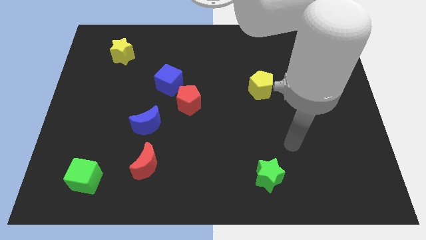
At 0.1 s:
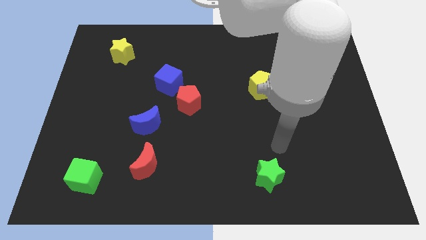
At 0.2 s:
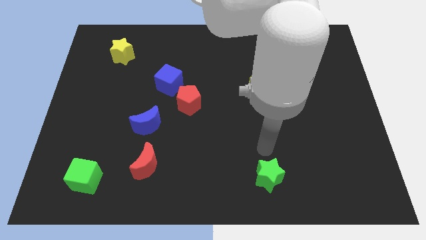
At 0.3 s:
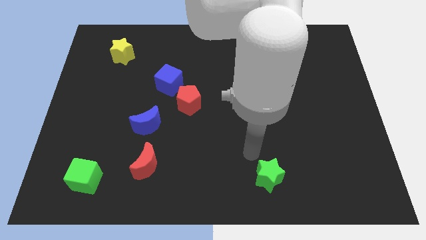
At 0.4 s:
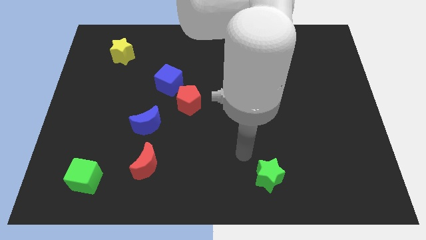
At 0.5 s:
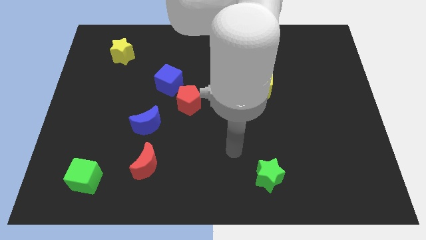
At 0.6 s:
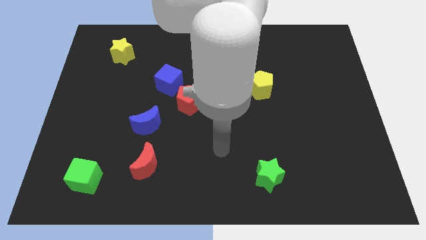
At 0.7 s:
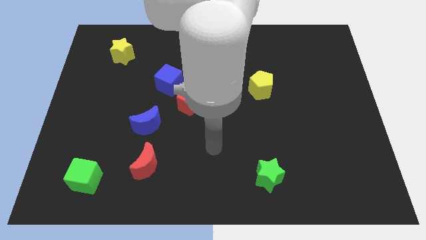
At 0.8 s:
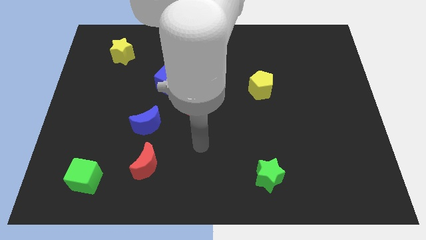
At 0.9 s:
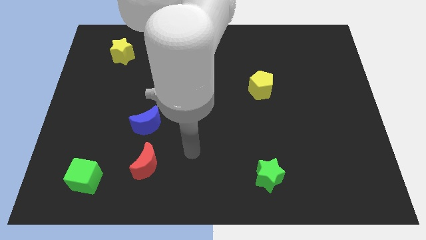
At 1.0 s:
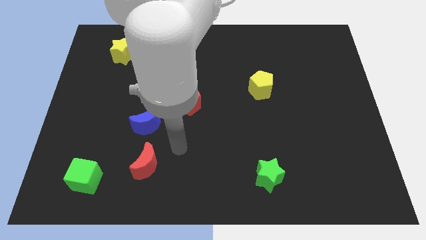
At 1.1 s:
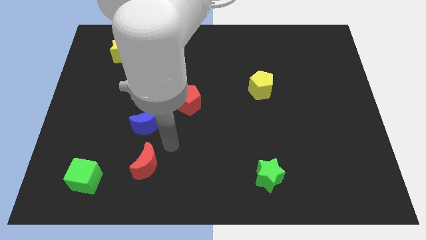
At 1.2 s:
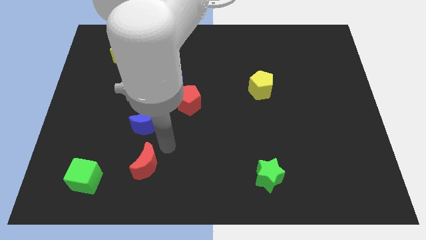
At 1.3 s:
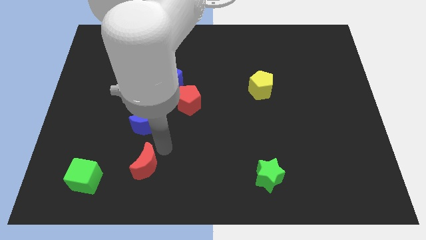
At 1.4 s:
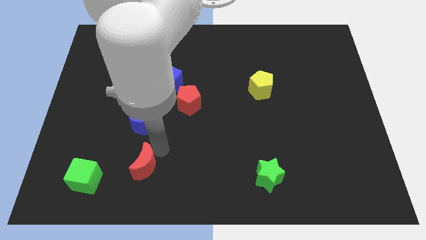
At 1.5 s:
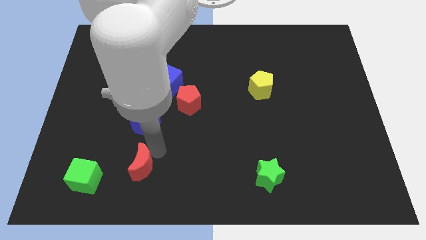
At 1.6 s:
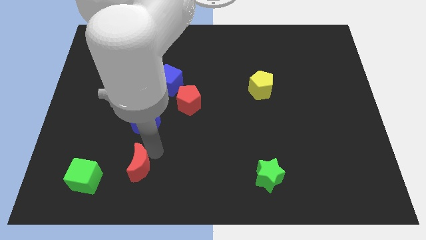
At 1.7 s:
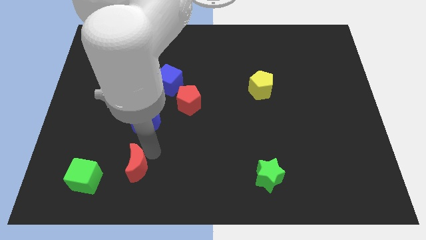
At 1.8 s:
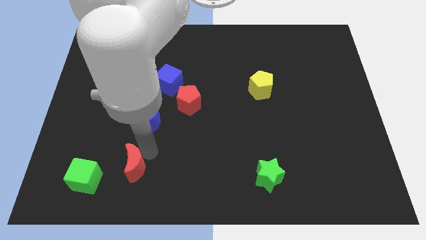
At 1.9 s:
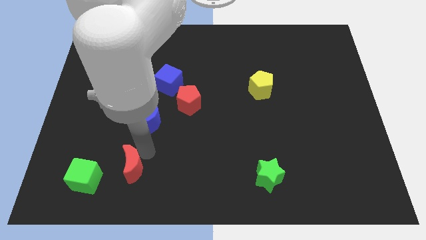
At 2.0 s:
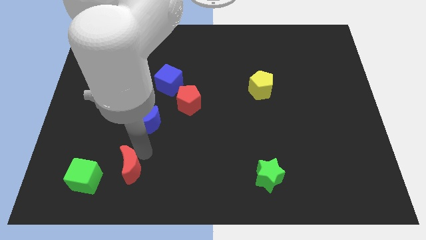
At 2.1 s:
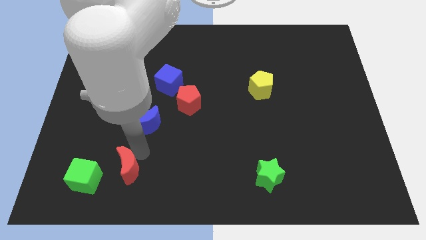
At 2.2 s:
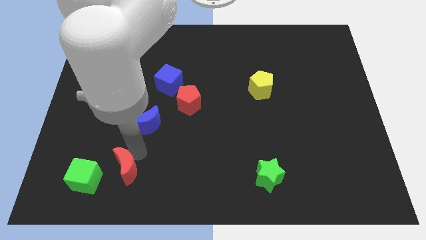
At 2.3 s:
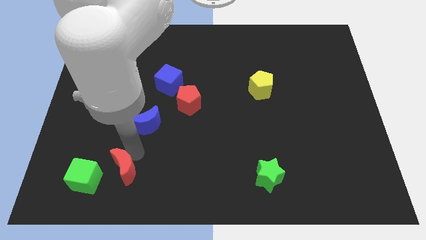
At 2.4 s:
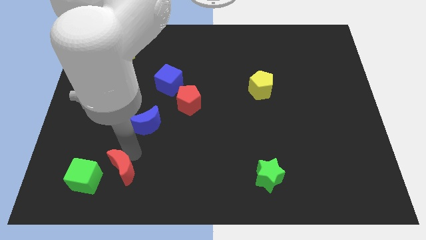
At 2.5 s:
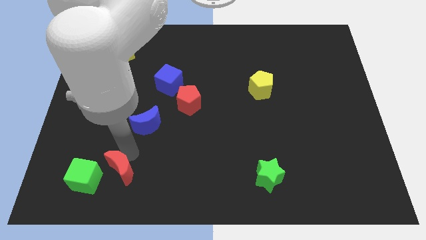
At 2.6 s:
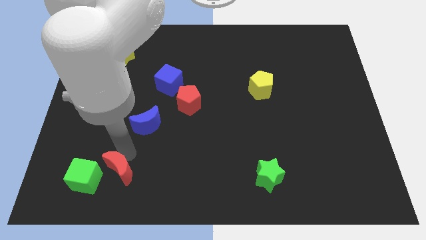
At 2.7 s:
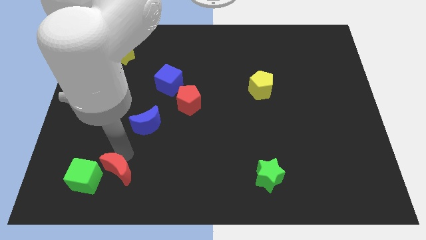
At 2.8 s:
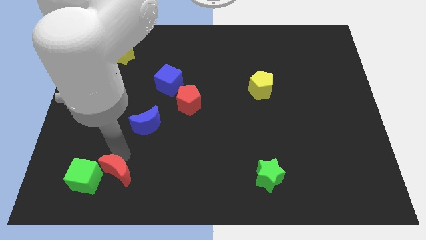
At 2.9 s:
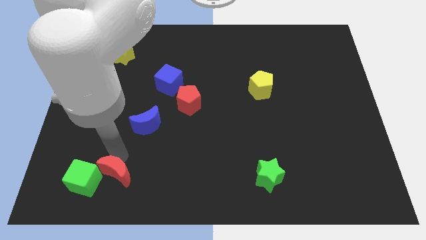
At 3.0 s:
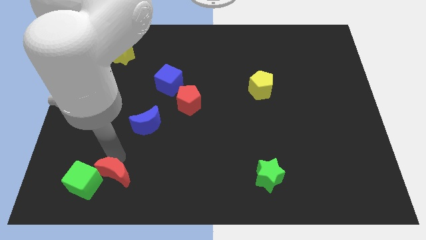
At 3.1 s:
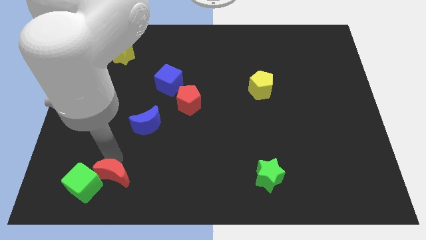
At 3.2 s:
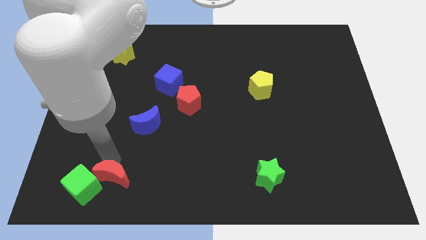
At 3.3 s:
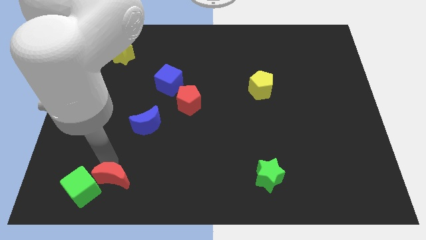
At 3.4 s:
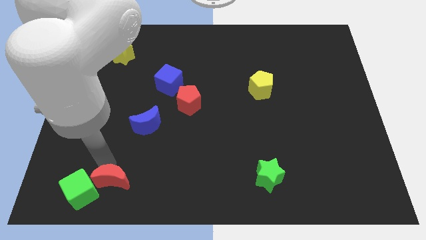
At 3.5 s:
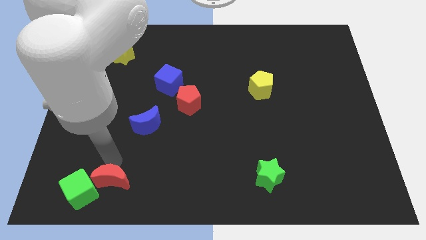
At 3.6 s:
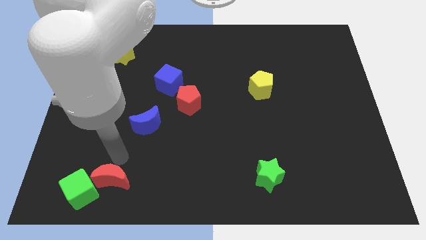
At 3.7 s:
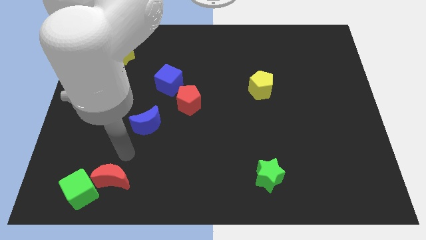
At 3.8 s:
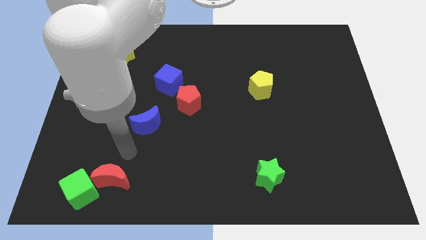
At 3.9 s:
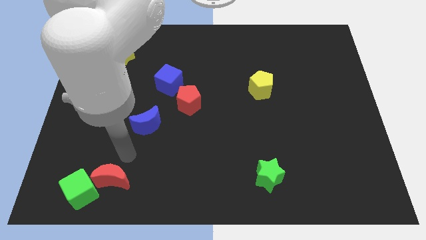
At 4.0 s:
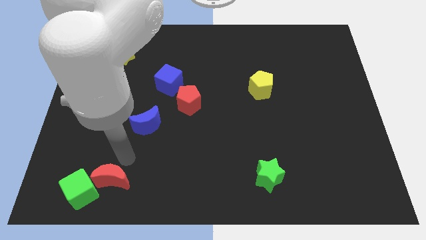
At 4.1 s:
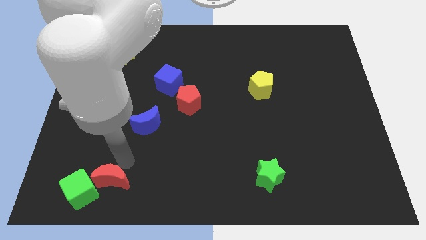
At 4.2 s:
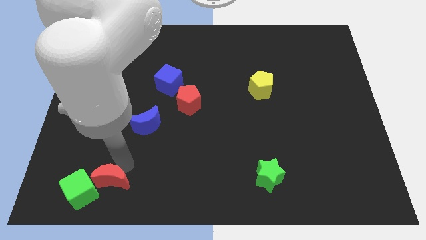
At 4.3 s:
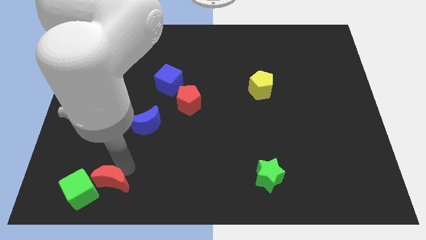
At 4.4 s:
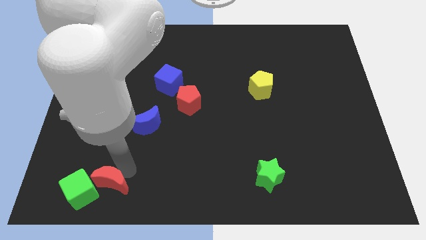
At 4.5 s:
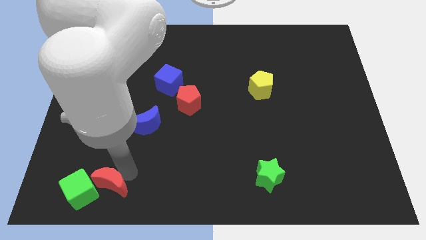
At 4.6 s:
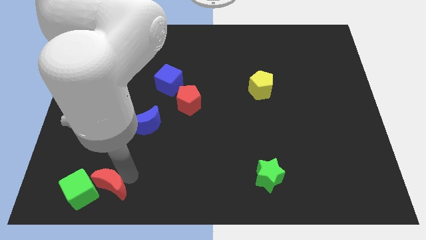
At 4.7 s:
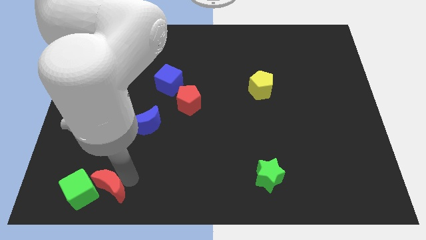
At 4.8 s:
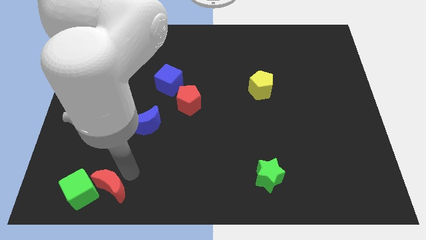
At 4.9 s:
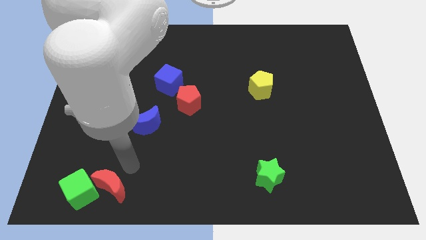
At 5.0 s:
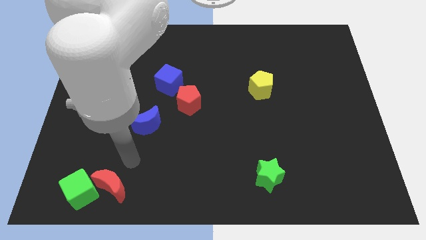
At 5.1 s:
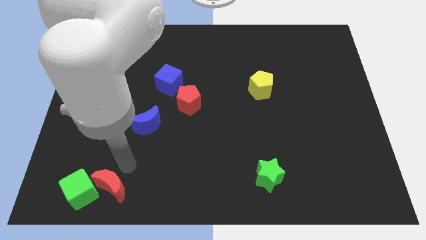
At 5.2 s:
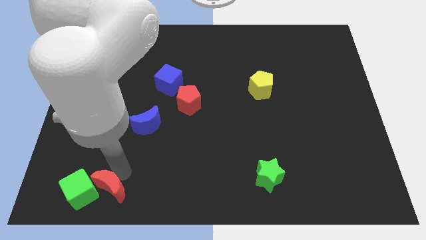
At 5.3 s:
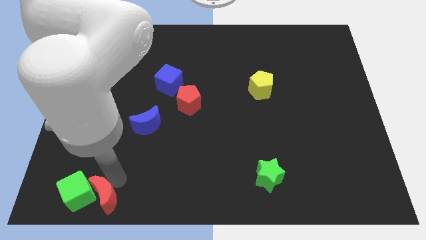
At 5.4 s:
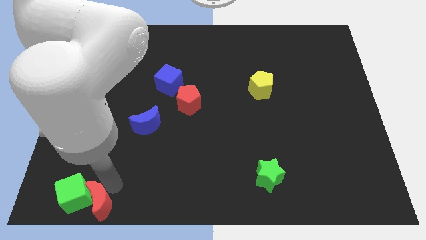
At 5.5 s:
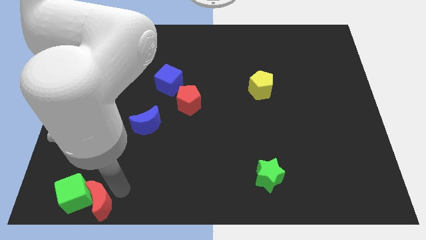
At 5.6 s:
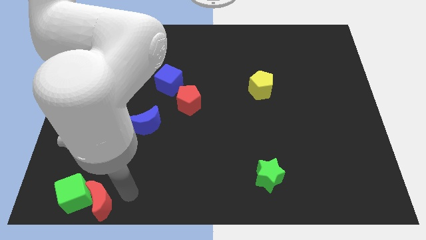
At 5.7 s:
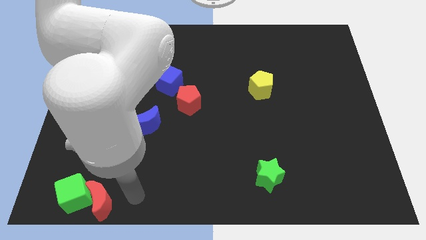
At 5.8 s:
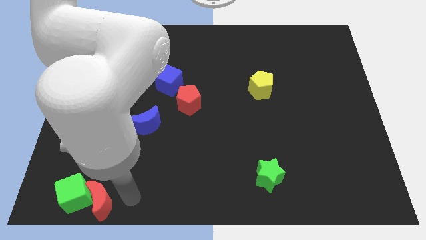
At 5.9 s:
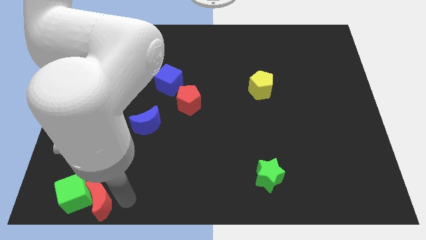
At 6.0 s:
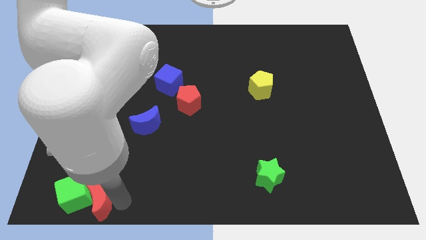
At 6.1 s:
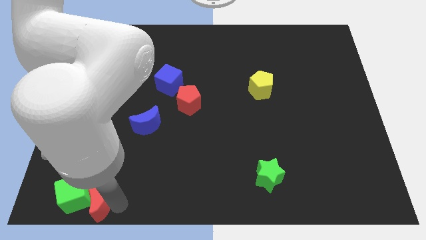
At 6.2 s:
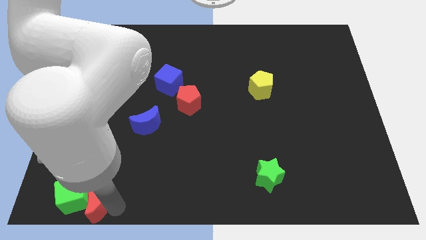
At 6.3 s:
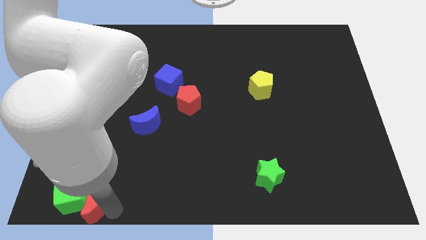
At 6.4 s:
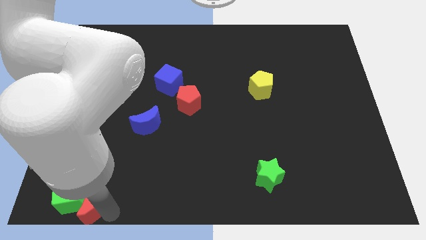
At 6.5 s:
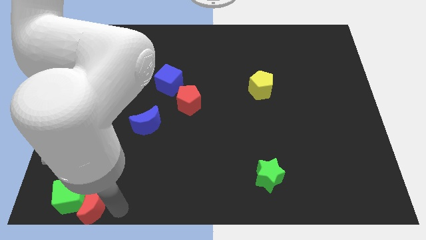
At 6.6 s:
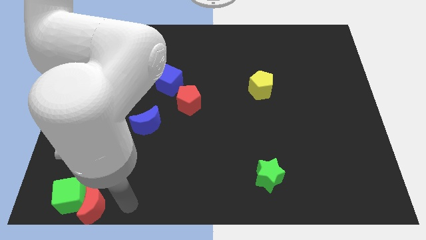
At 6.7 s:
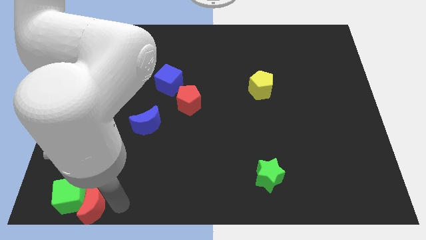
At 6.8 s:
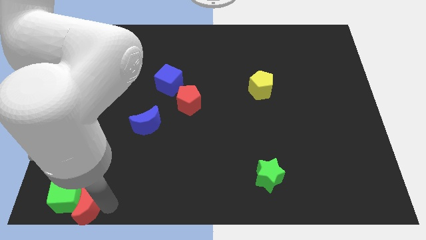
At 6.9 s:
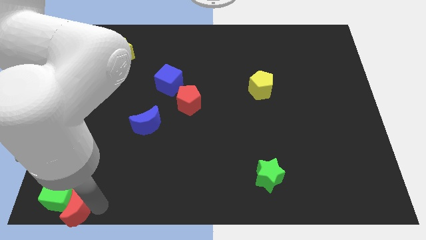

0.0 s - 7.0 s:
put the red moon to the bottom left of the board
